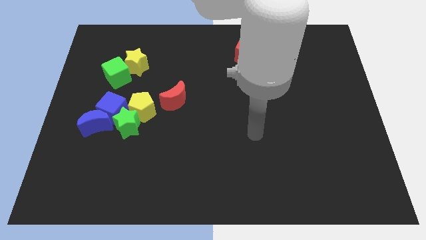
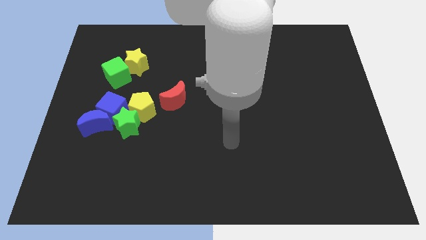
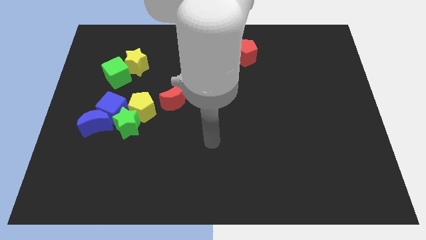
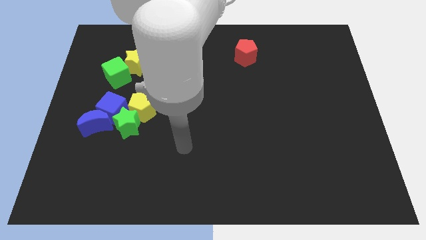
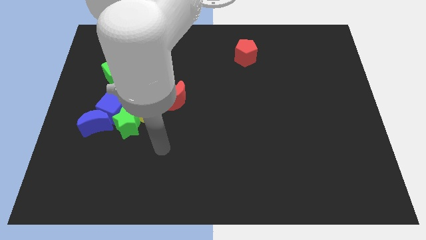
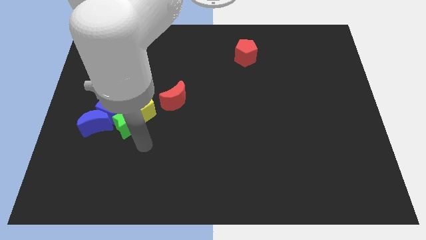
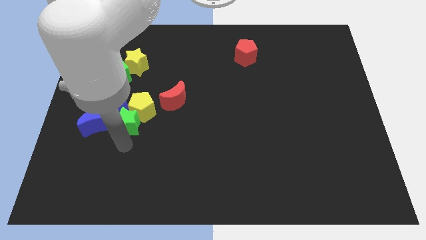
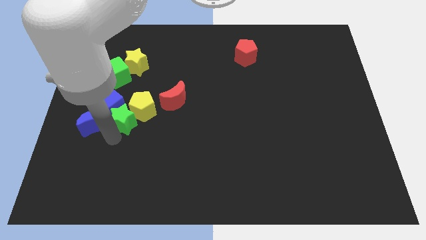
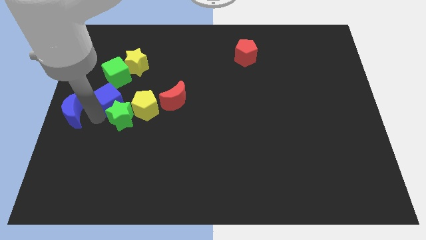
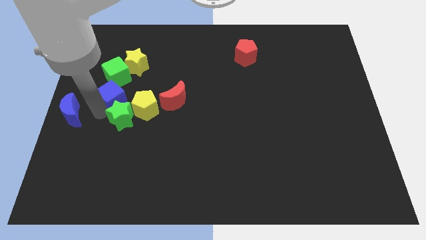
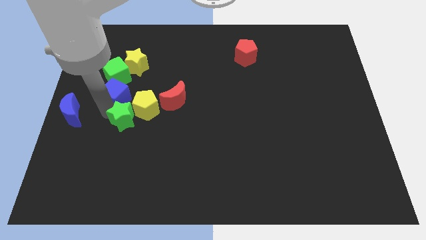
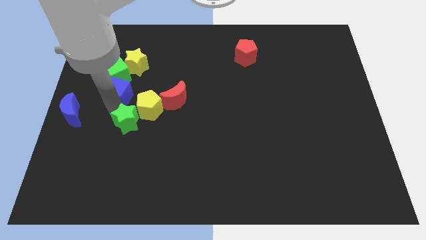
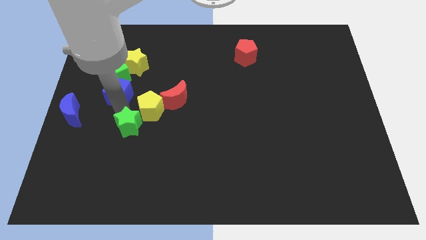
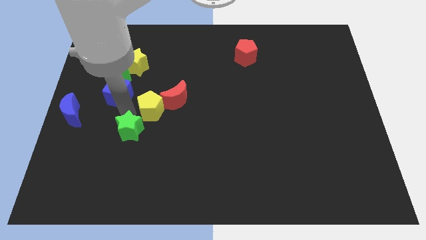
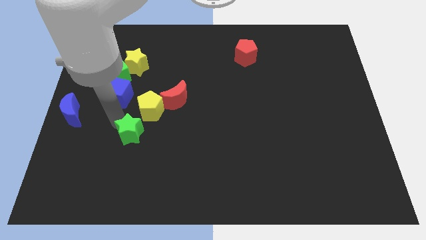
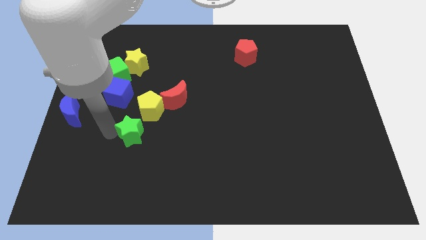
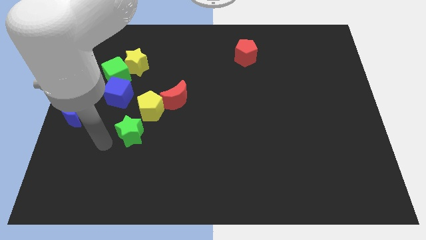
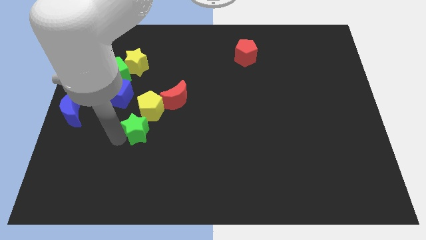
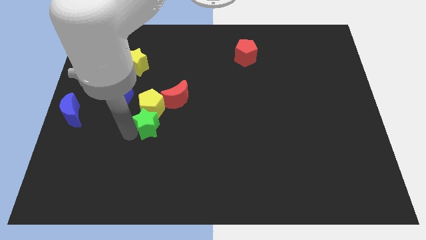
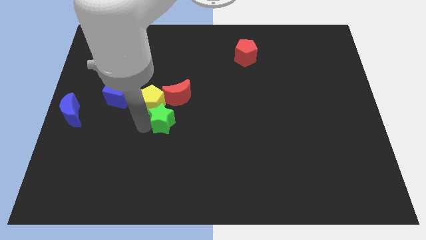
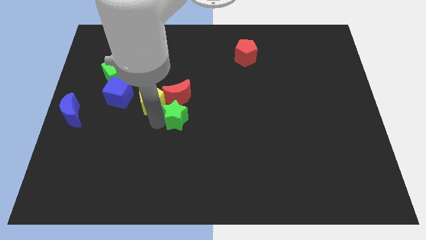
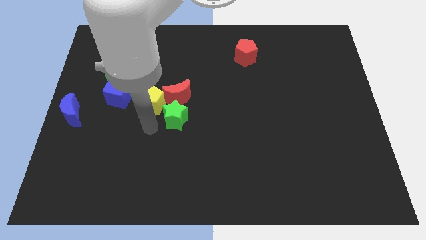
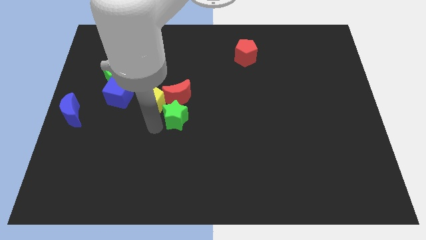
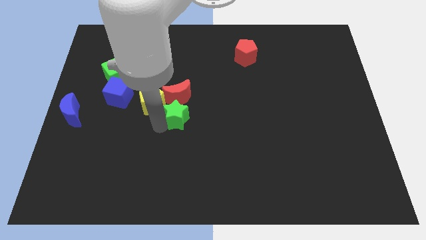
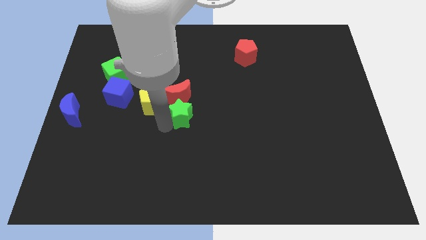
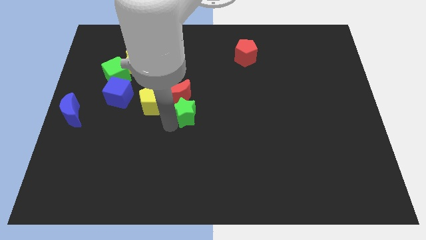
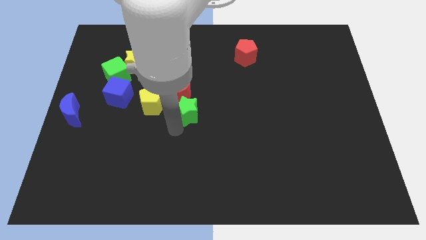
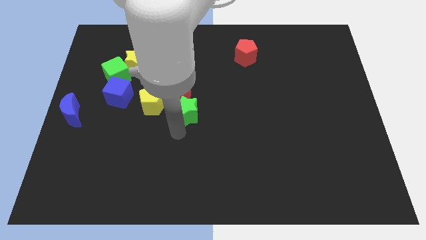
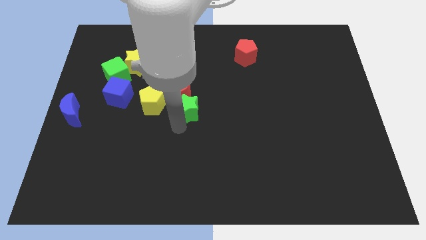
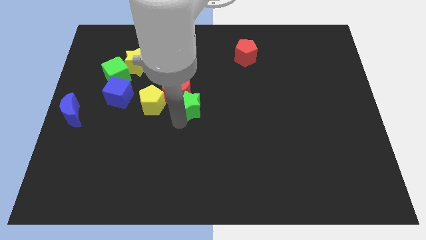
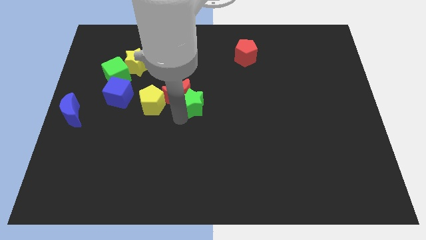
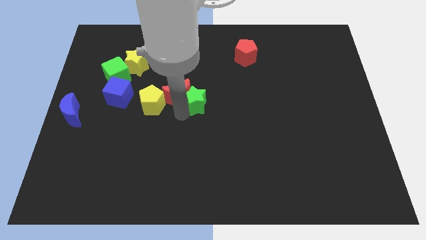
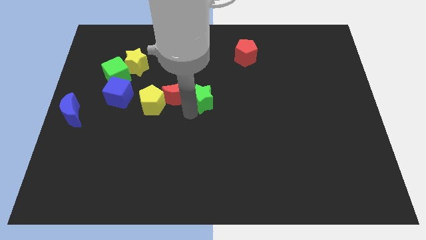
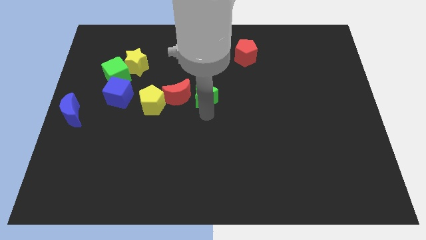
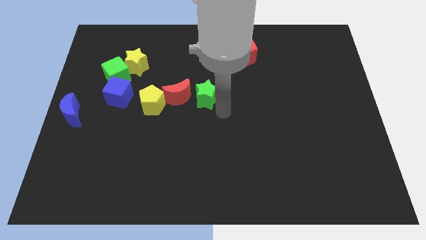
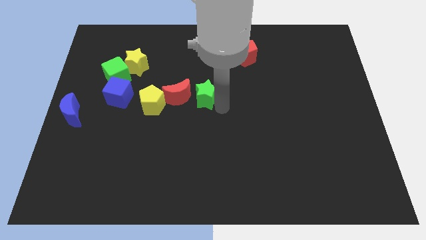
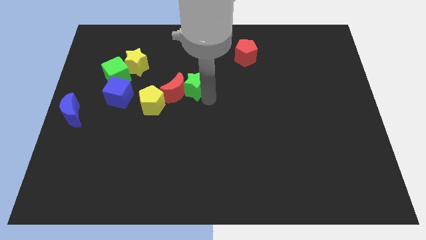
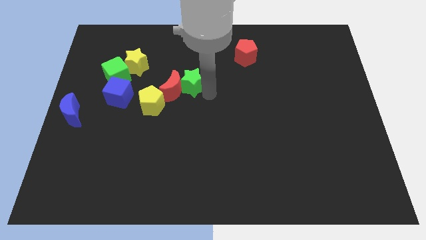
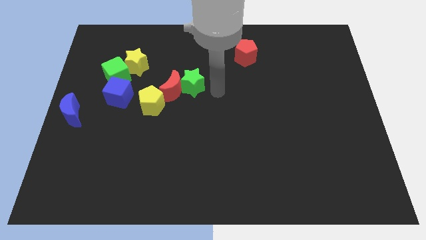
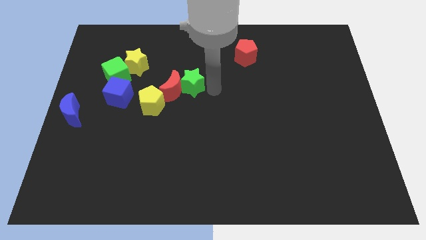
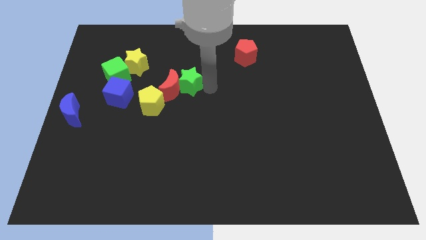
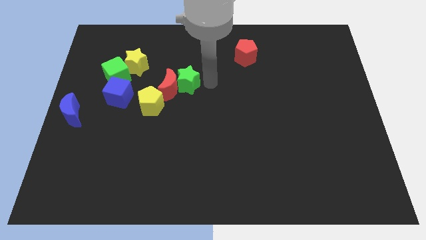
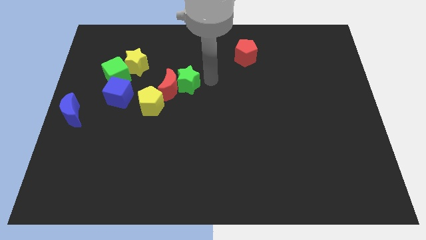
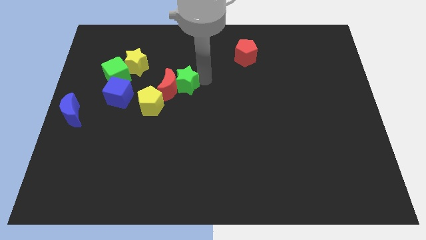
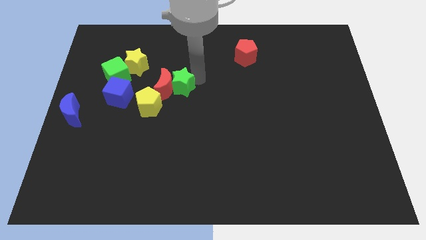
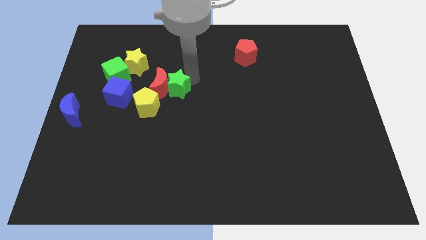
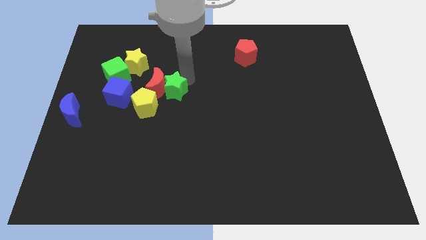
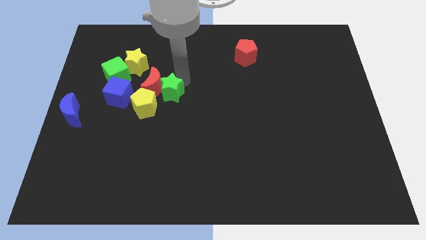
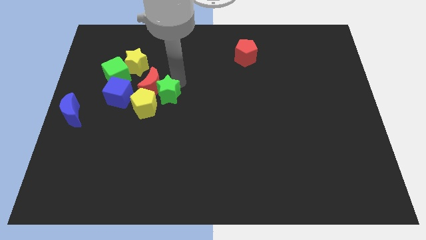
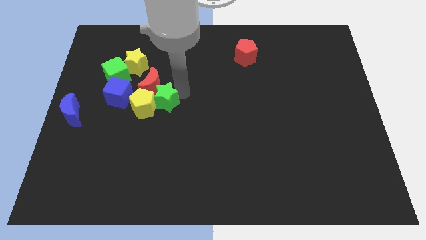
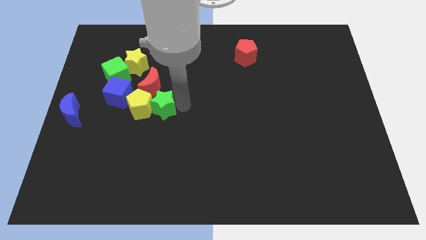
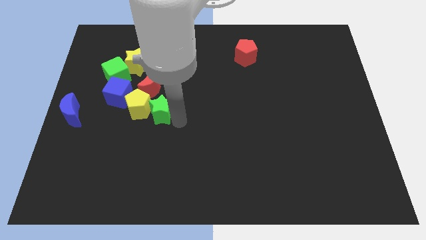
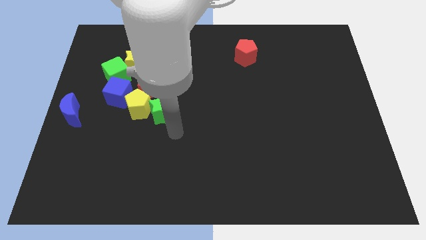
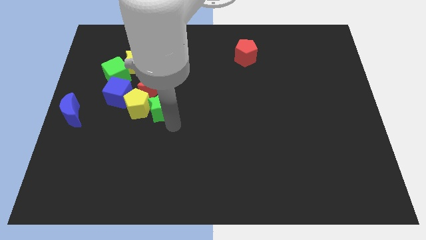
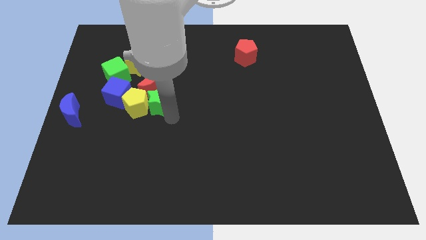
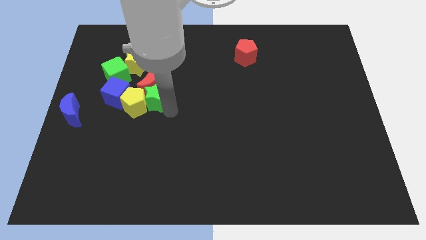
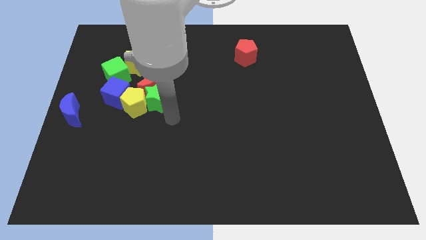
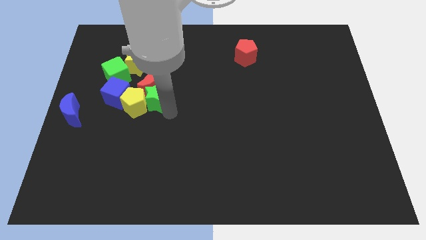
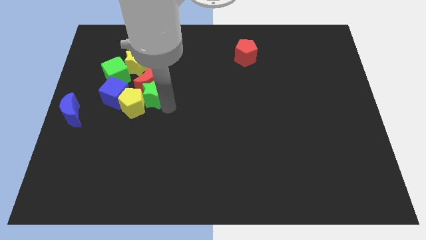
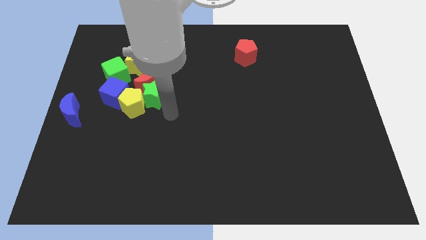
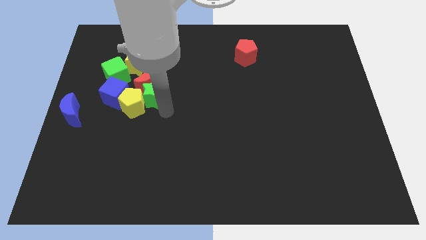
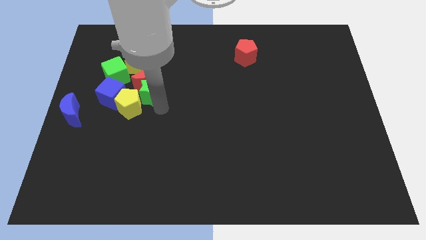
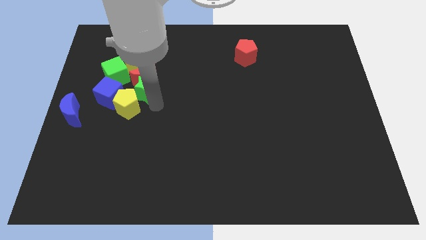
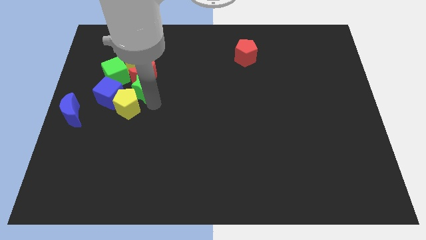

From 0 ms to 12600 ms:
put the green star diagonally up and to the right of the blue cube
